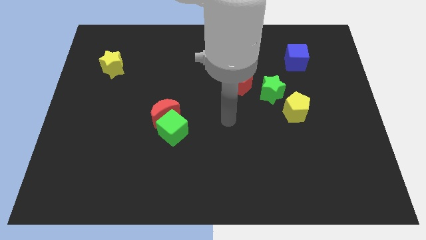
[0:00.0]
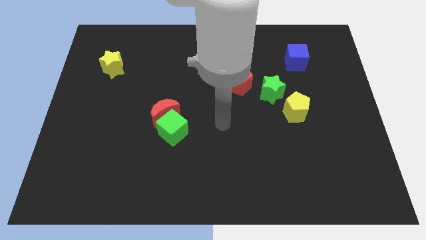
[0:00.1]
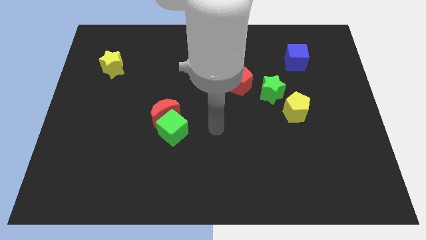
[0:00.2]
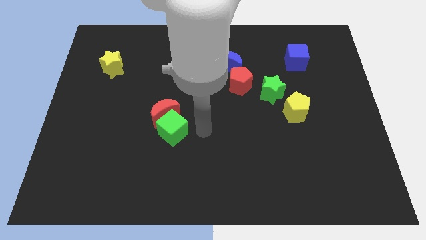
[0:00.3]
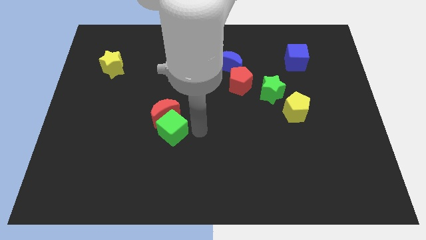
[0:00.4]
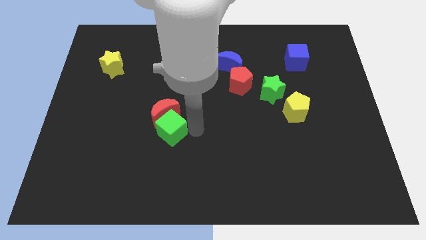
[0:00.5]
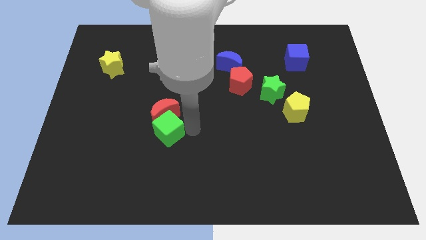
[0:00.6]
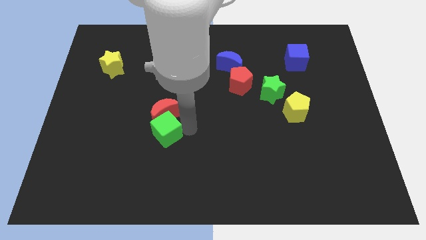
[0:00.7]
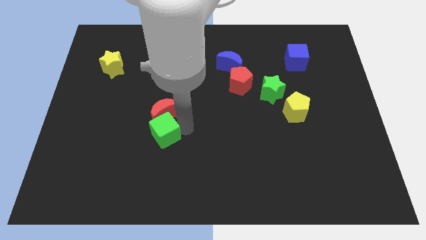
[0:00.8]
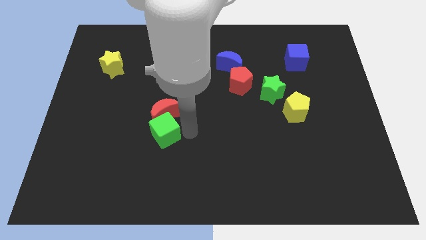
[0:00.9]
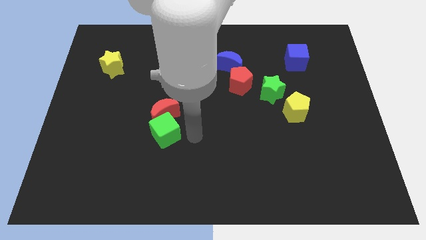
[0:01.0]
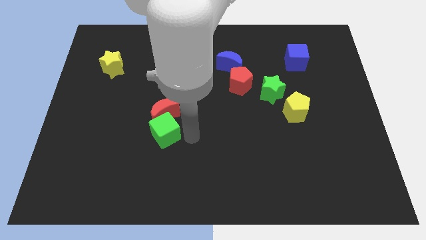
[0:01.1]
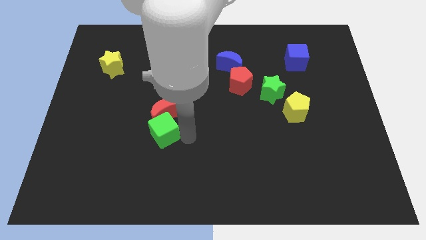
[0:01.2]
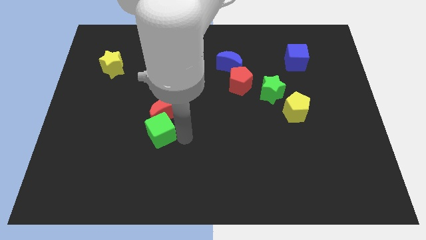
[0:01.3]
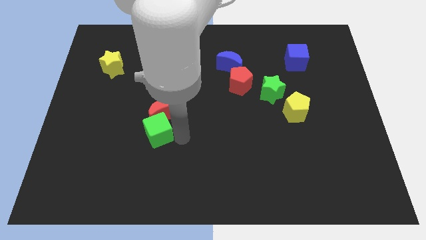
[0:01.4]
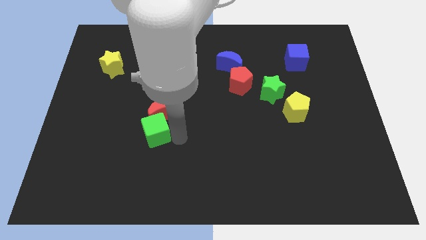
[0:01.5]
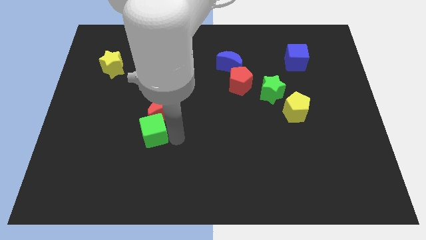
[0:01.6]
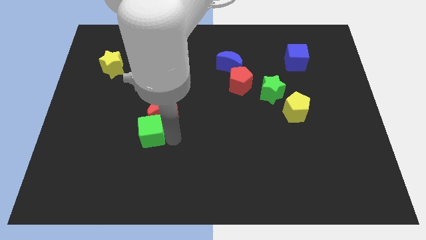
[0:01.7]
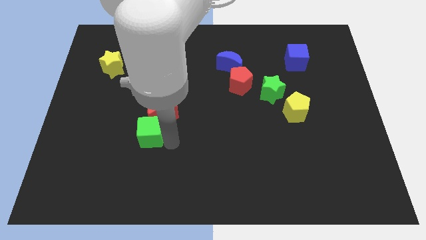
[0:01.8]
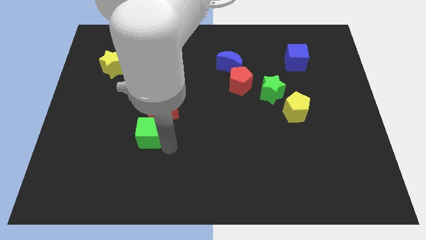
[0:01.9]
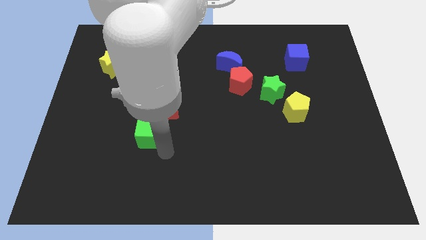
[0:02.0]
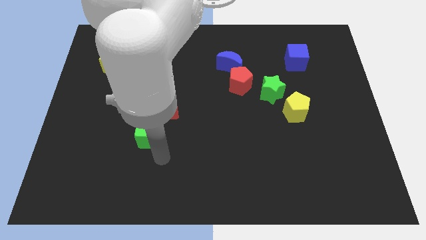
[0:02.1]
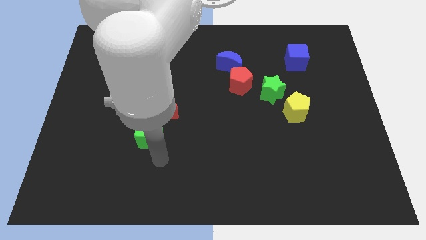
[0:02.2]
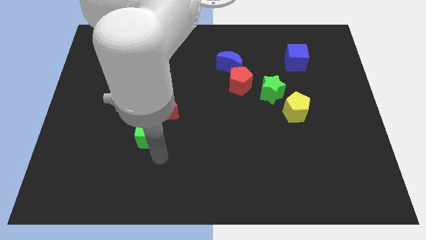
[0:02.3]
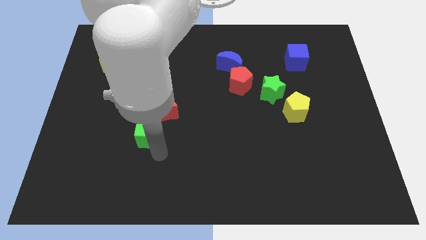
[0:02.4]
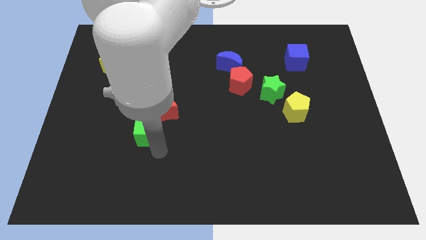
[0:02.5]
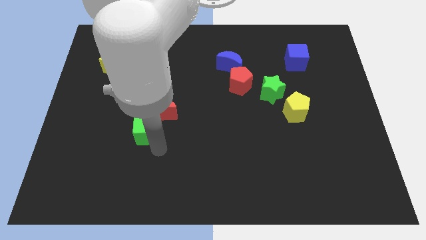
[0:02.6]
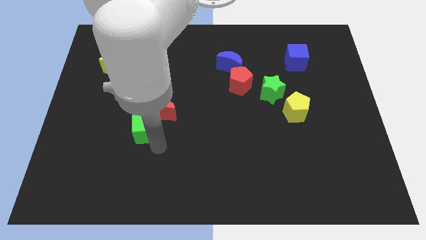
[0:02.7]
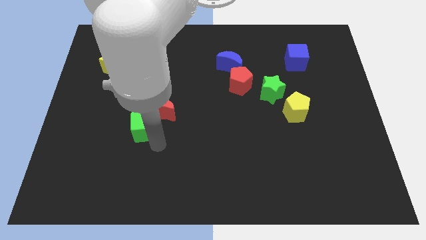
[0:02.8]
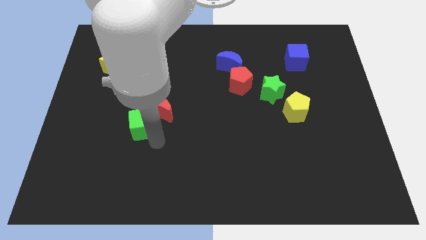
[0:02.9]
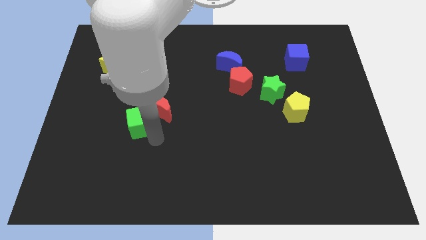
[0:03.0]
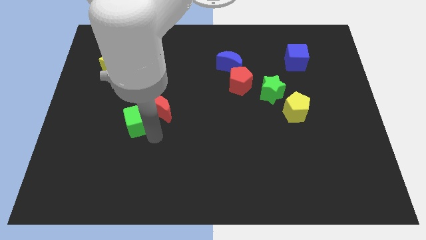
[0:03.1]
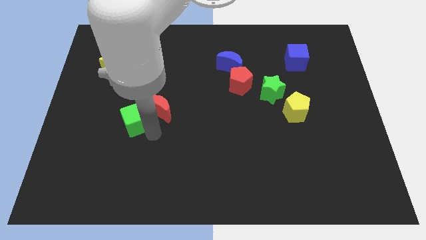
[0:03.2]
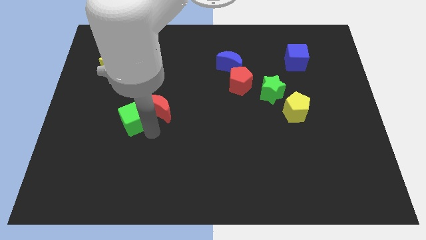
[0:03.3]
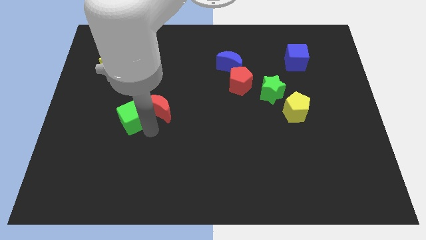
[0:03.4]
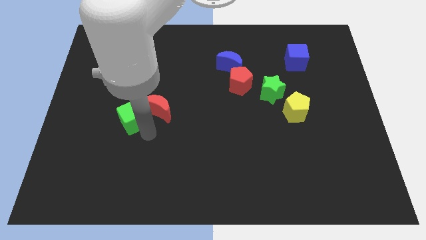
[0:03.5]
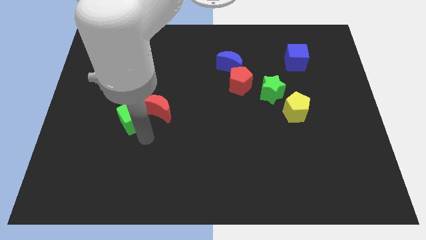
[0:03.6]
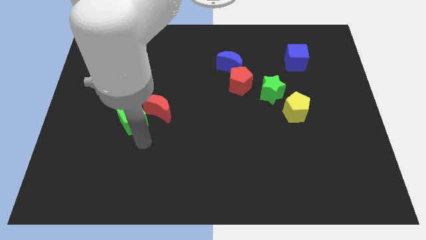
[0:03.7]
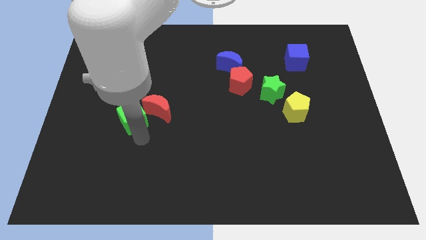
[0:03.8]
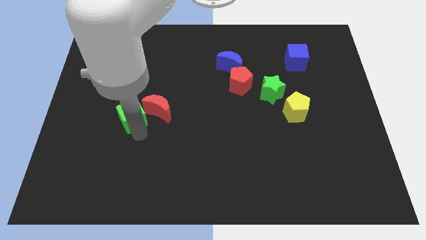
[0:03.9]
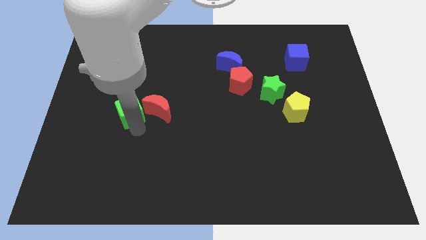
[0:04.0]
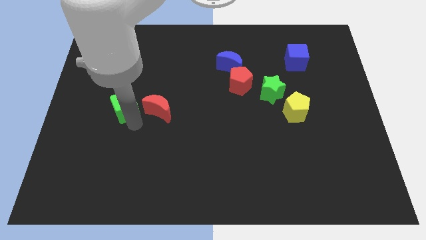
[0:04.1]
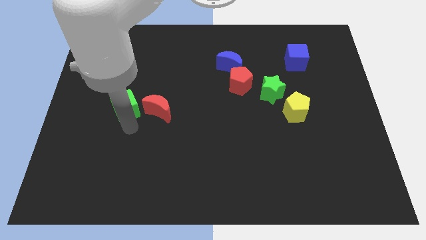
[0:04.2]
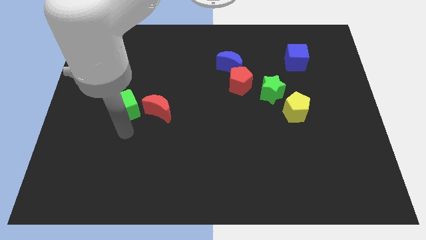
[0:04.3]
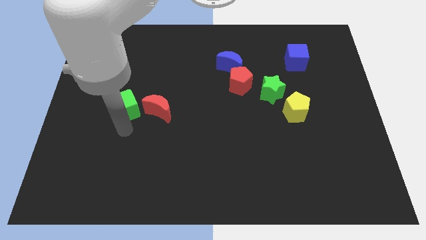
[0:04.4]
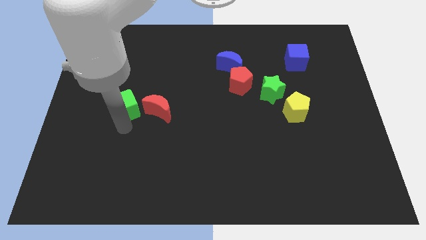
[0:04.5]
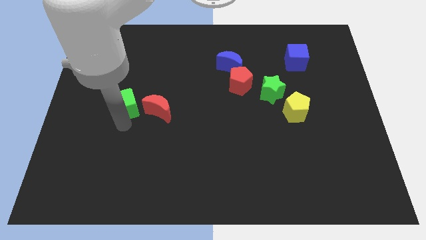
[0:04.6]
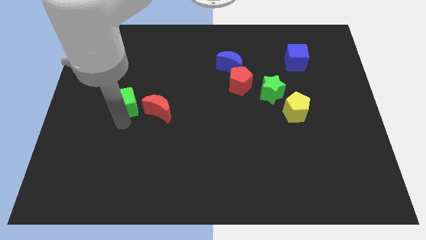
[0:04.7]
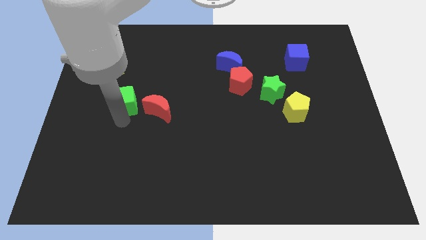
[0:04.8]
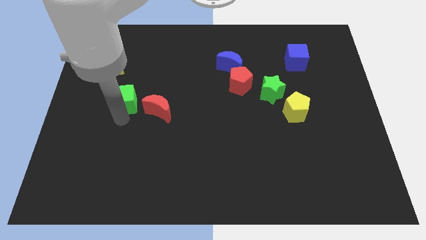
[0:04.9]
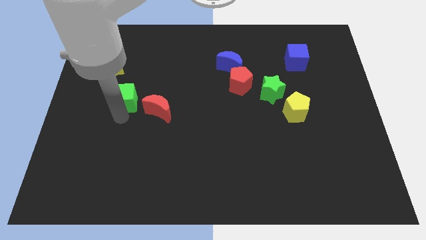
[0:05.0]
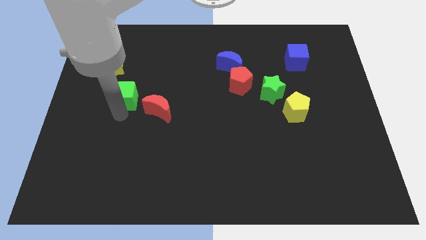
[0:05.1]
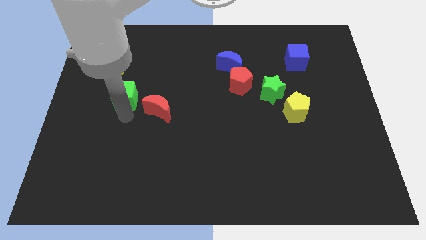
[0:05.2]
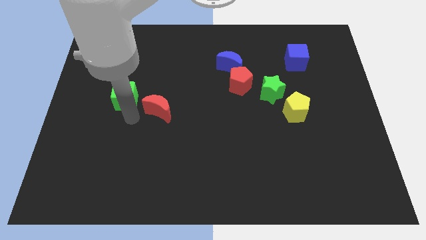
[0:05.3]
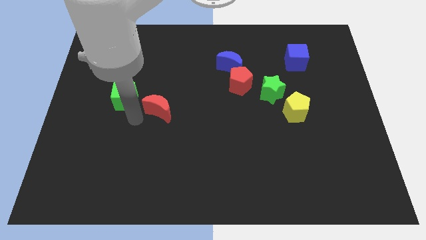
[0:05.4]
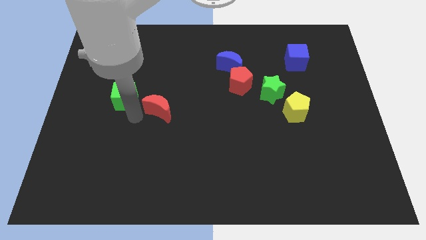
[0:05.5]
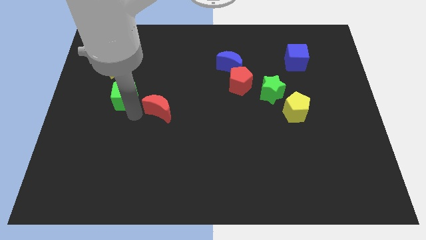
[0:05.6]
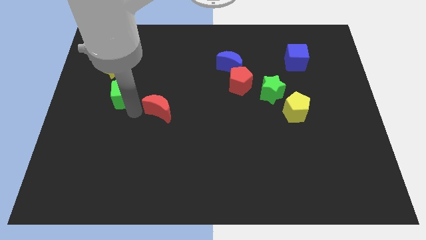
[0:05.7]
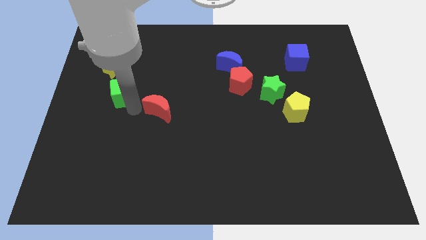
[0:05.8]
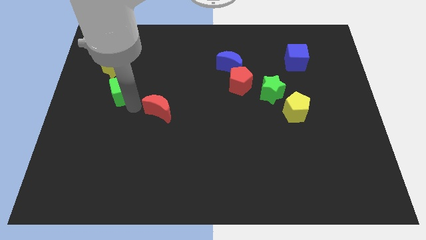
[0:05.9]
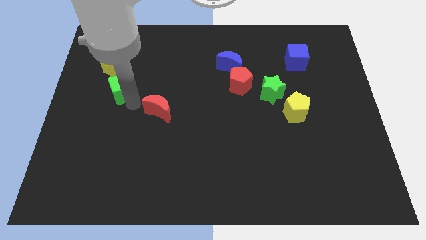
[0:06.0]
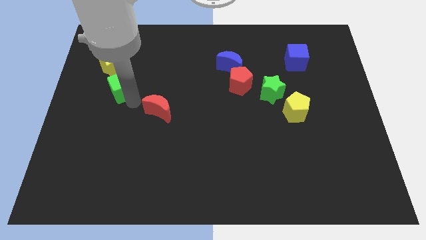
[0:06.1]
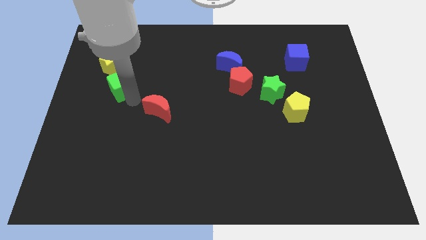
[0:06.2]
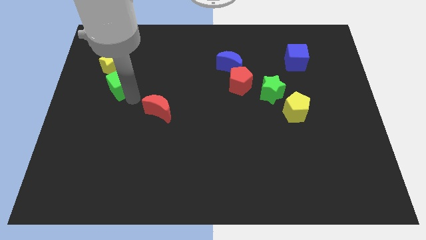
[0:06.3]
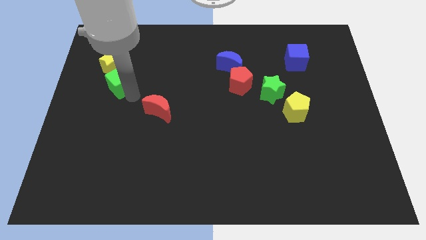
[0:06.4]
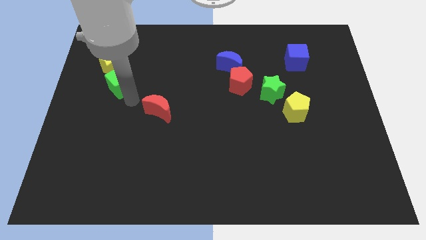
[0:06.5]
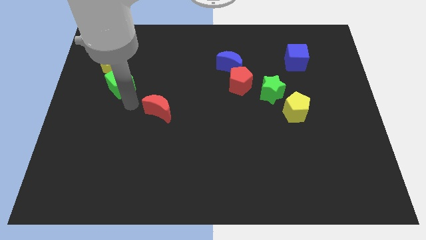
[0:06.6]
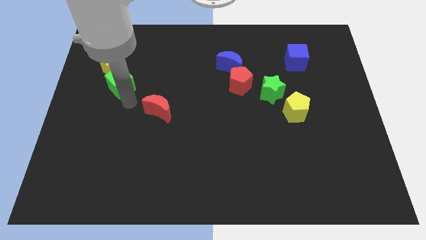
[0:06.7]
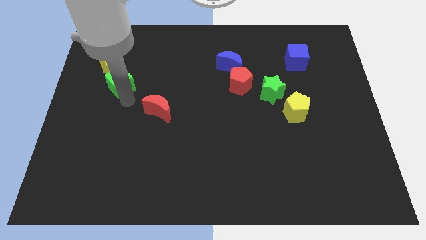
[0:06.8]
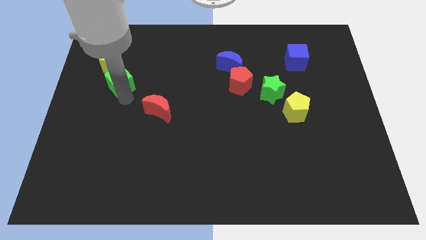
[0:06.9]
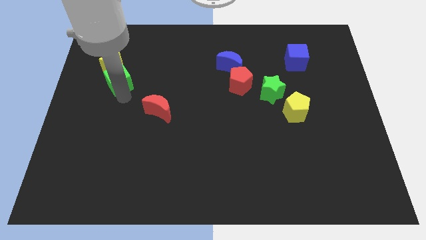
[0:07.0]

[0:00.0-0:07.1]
put the green cube to the yellow star
